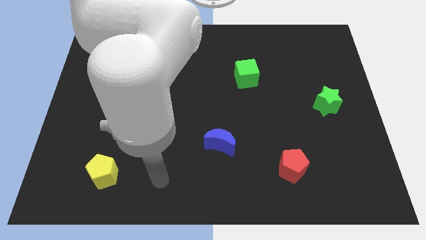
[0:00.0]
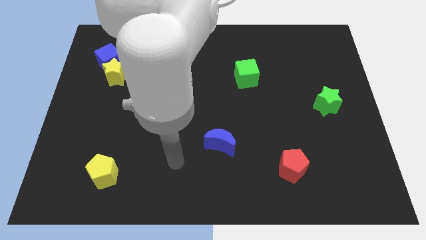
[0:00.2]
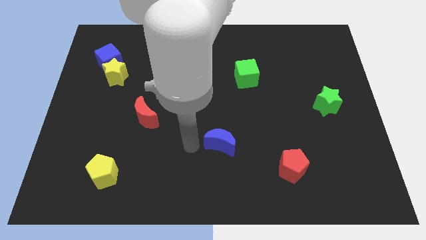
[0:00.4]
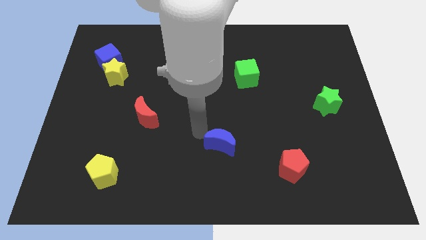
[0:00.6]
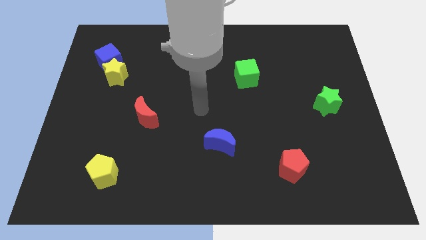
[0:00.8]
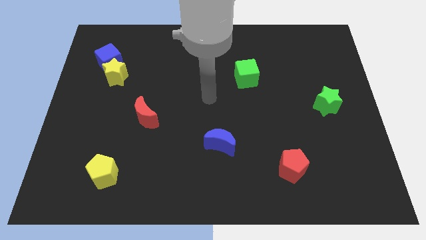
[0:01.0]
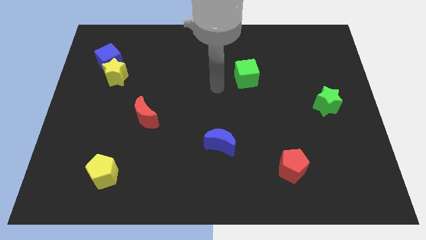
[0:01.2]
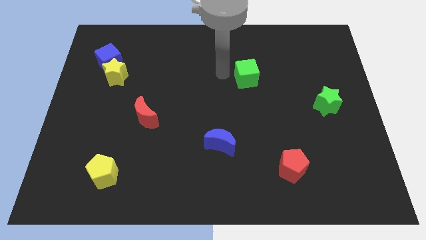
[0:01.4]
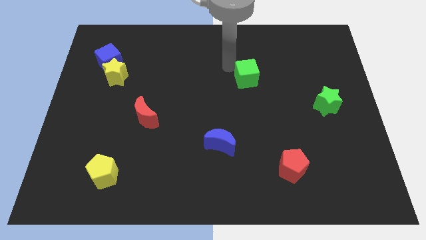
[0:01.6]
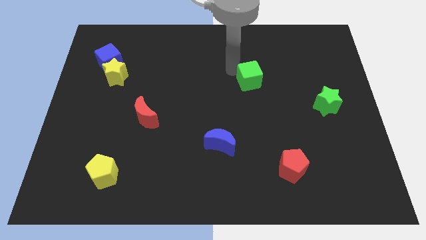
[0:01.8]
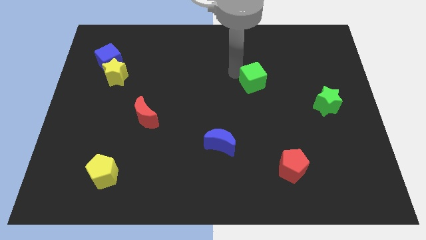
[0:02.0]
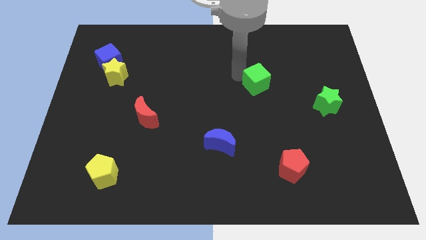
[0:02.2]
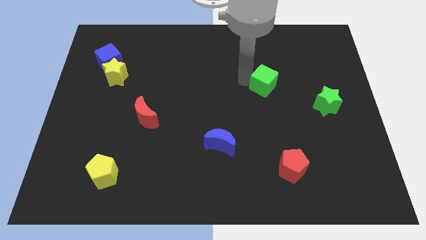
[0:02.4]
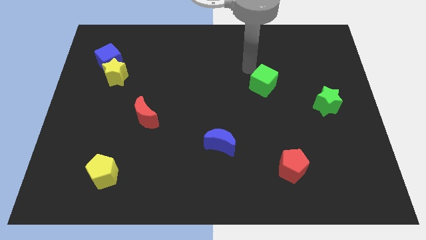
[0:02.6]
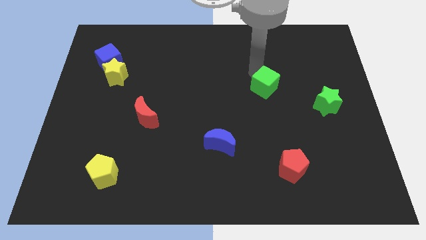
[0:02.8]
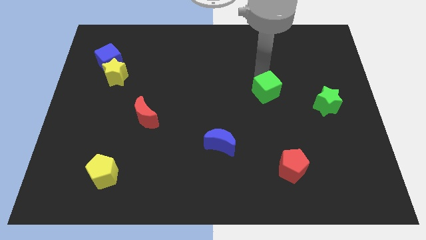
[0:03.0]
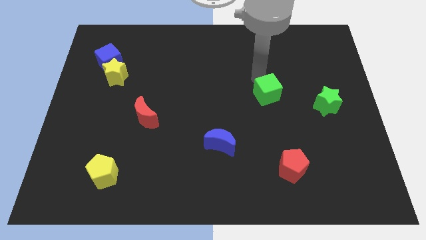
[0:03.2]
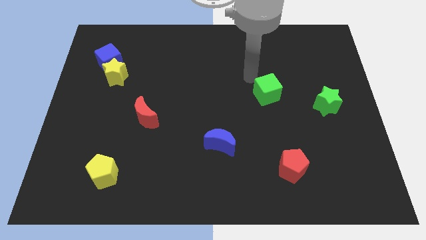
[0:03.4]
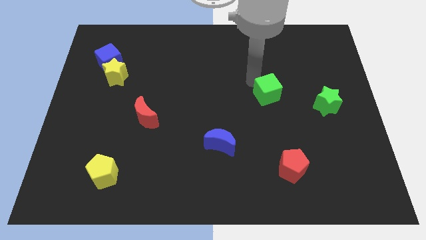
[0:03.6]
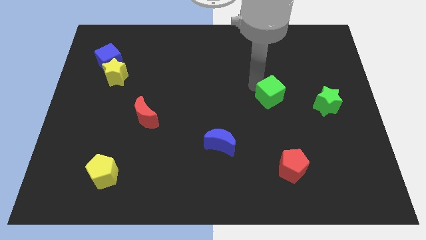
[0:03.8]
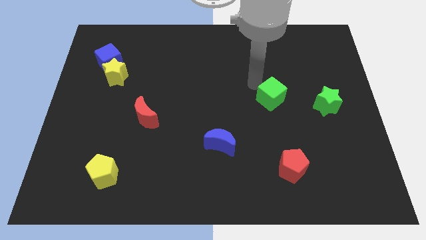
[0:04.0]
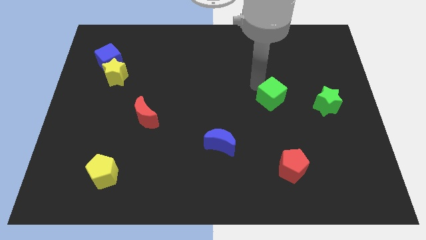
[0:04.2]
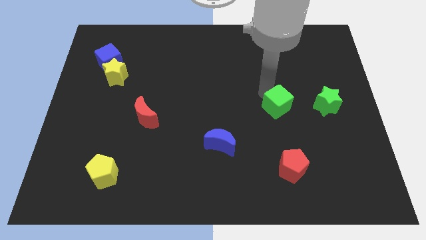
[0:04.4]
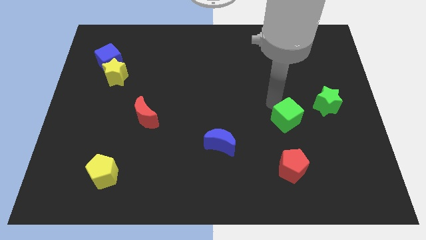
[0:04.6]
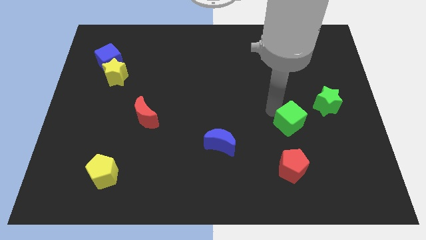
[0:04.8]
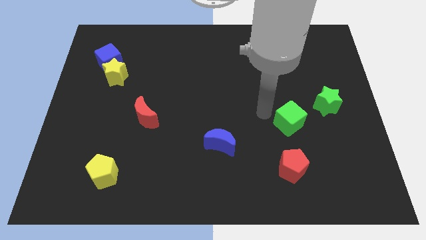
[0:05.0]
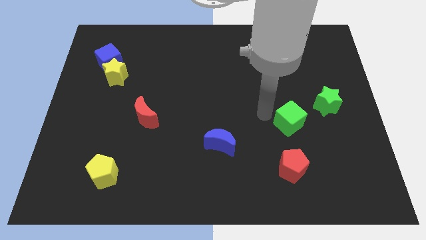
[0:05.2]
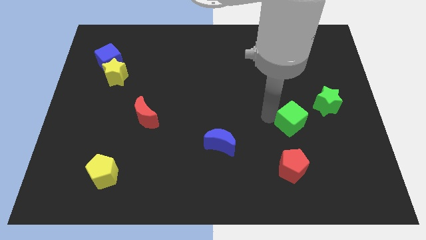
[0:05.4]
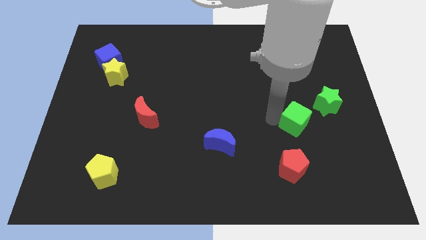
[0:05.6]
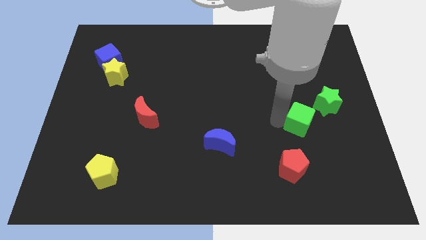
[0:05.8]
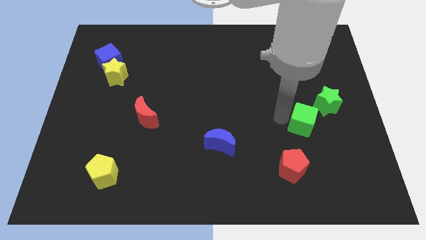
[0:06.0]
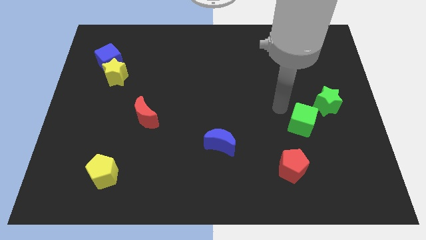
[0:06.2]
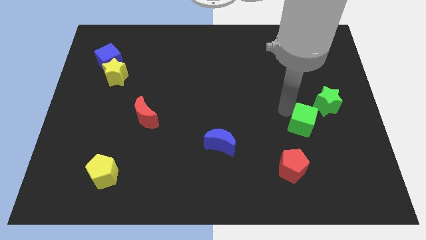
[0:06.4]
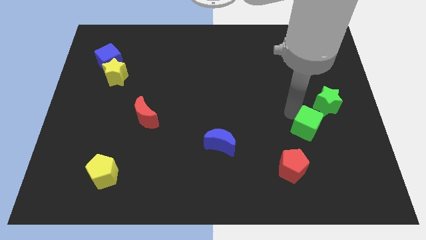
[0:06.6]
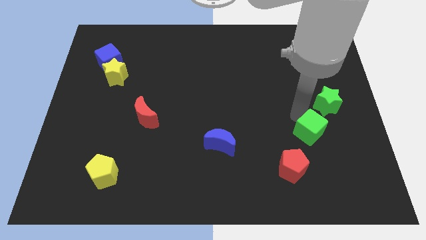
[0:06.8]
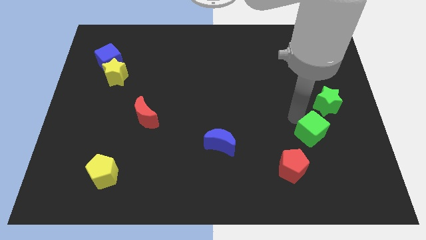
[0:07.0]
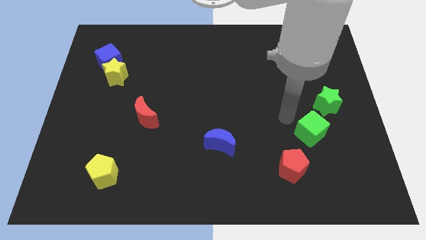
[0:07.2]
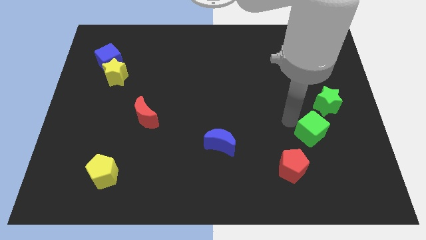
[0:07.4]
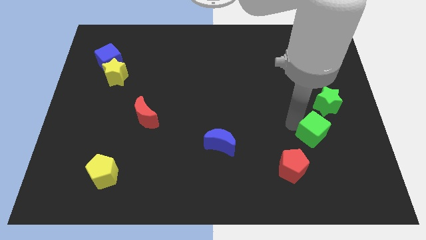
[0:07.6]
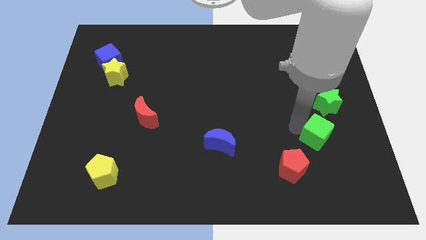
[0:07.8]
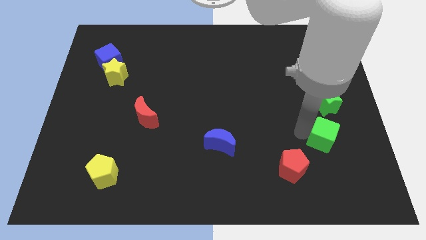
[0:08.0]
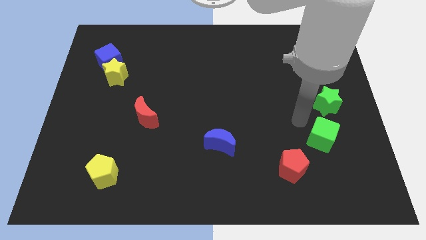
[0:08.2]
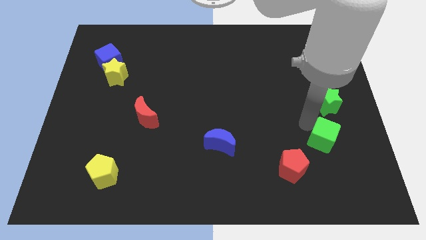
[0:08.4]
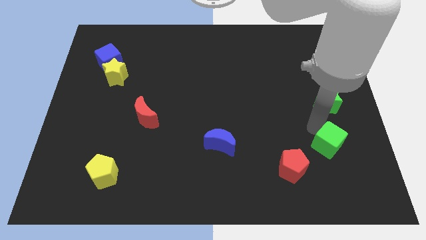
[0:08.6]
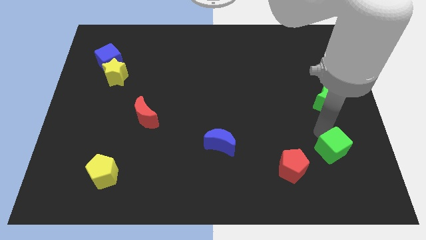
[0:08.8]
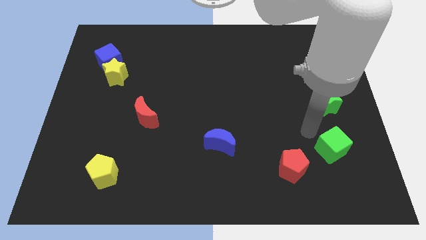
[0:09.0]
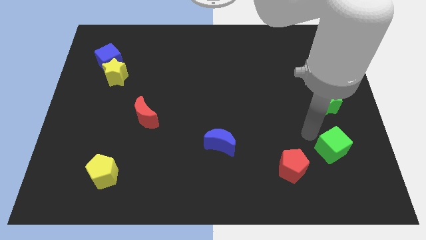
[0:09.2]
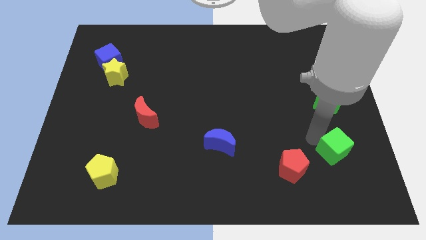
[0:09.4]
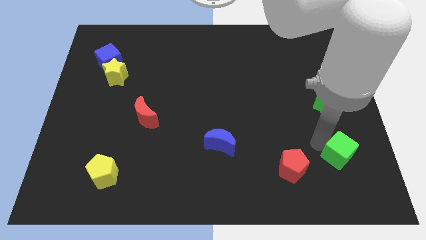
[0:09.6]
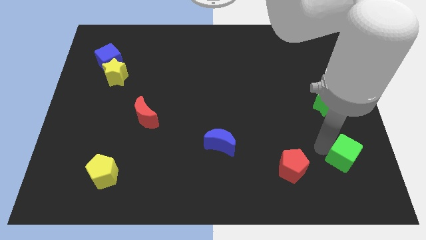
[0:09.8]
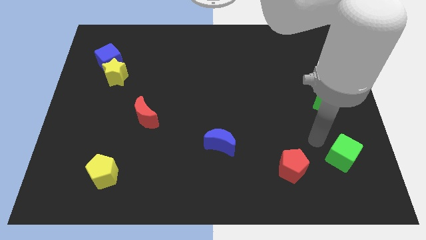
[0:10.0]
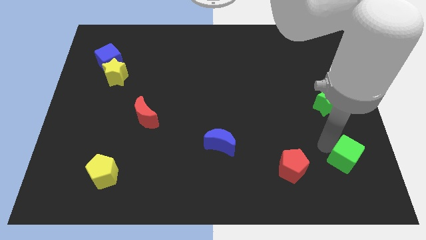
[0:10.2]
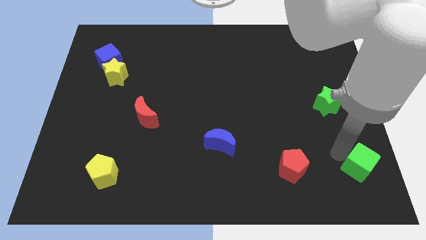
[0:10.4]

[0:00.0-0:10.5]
push the green cube to the bottom right corner

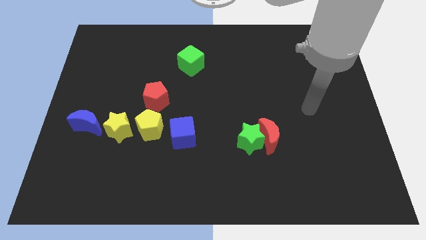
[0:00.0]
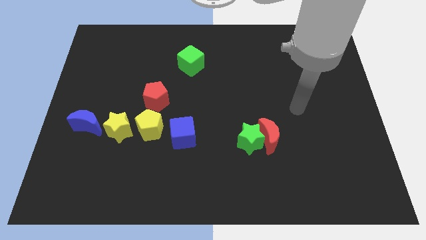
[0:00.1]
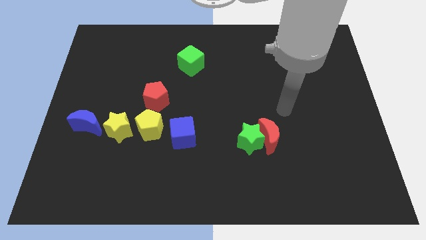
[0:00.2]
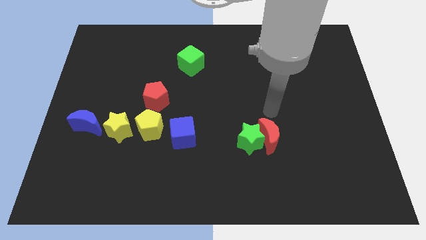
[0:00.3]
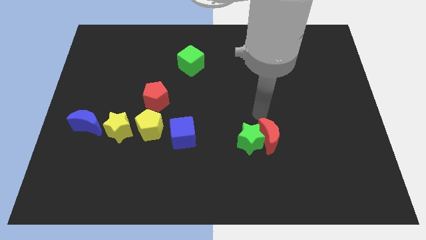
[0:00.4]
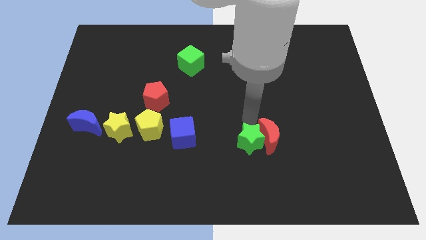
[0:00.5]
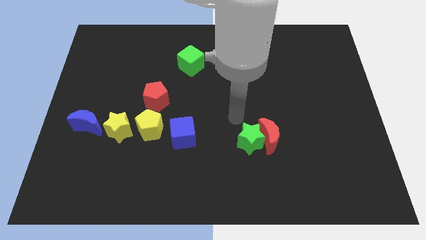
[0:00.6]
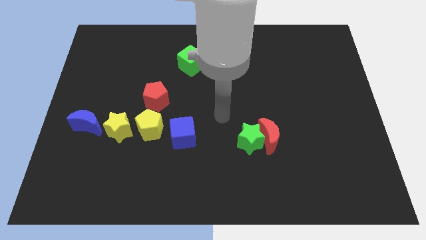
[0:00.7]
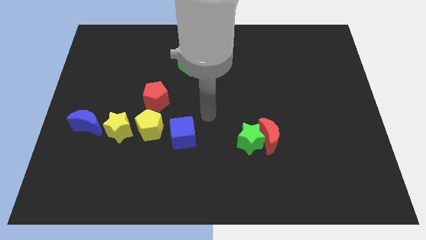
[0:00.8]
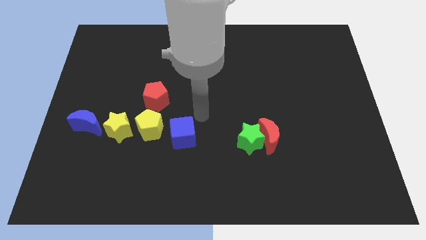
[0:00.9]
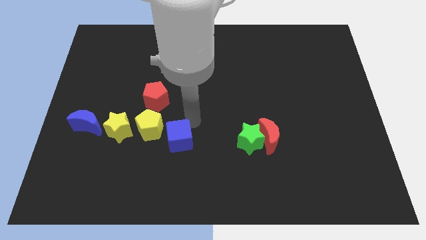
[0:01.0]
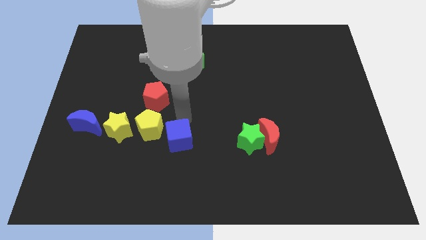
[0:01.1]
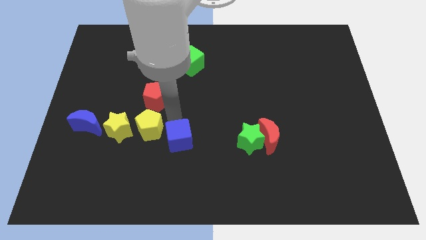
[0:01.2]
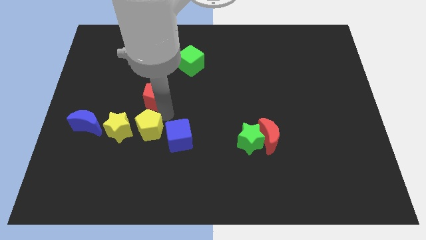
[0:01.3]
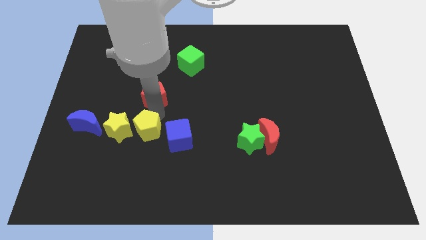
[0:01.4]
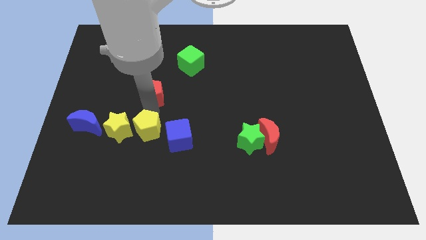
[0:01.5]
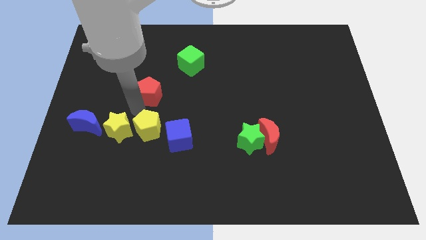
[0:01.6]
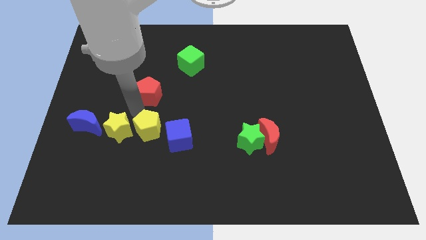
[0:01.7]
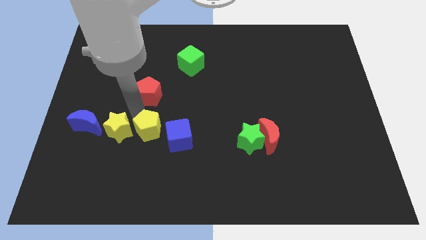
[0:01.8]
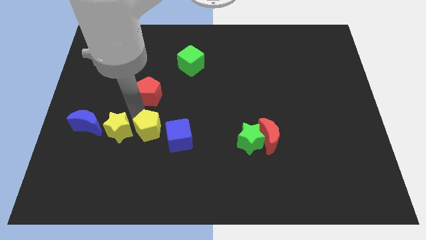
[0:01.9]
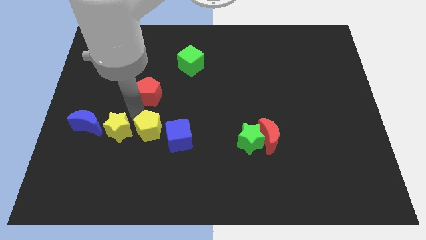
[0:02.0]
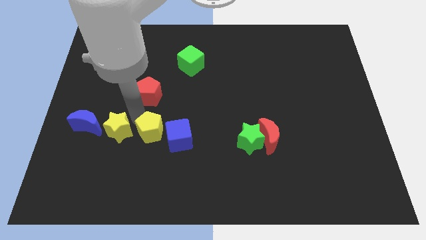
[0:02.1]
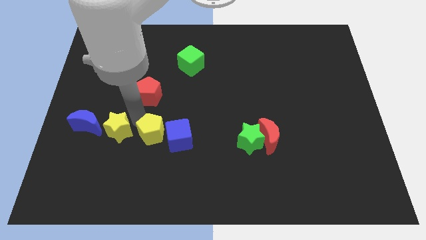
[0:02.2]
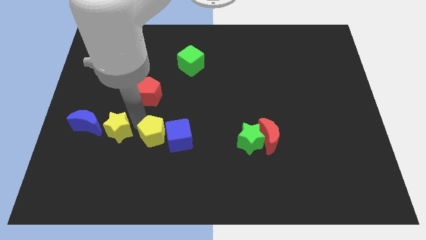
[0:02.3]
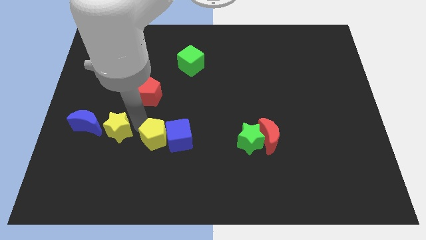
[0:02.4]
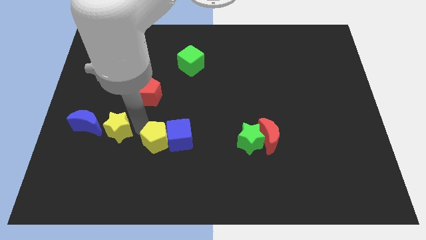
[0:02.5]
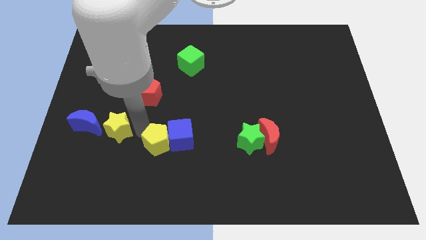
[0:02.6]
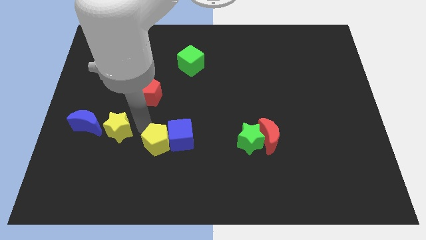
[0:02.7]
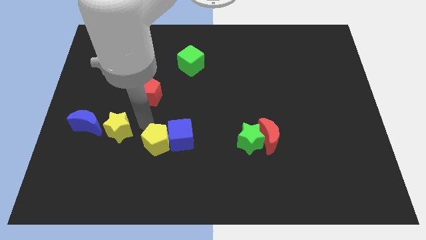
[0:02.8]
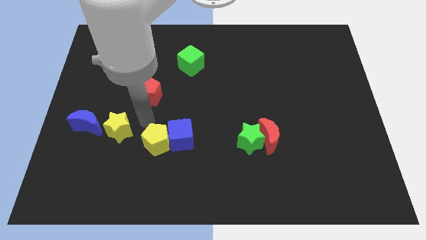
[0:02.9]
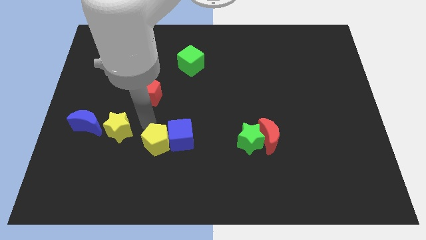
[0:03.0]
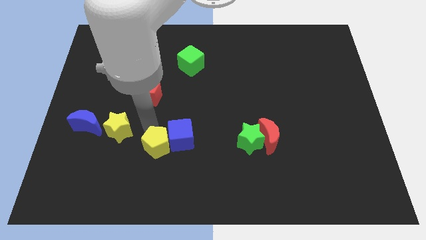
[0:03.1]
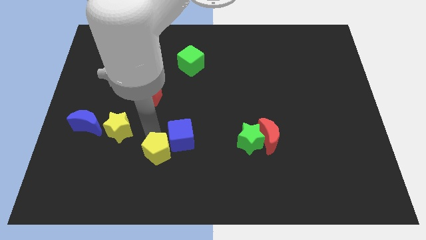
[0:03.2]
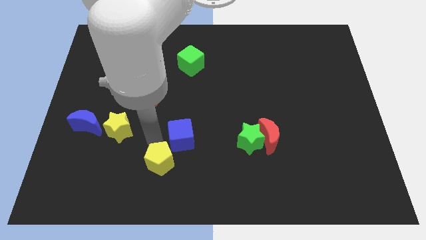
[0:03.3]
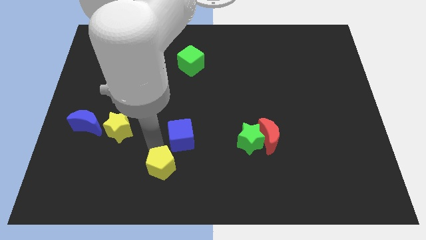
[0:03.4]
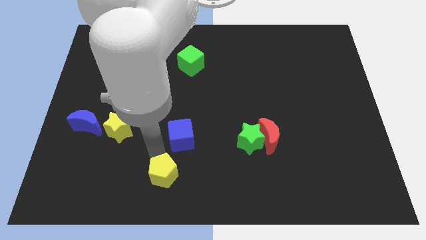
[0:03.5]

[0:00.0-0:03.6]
move the yellow pentagon to the bottom
